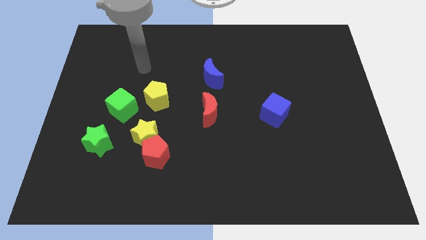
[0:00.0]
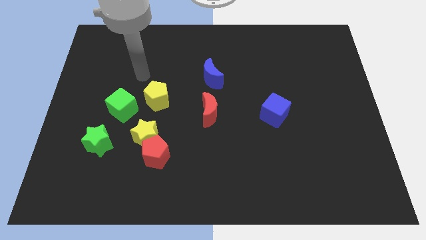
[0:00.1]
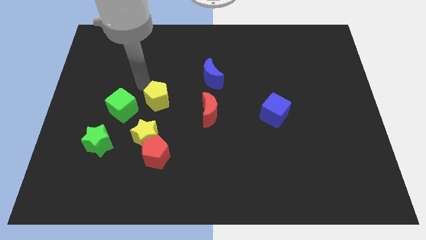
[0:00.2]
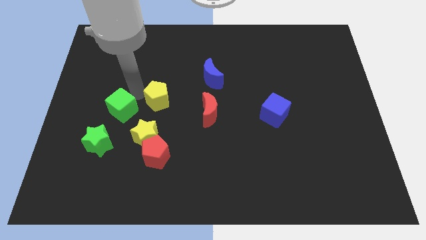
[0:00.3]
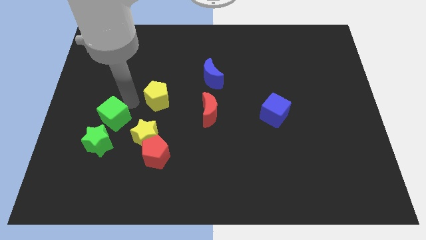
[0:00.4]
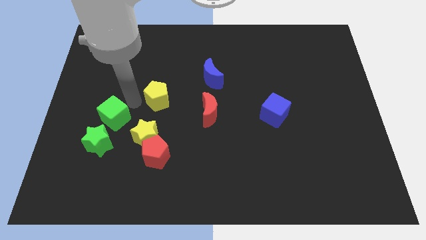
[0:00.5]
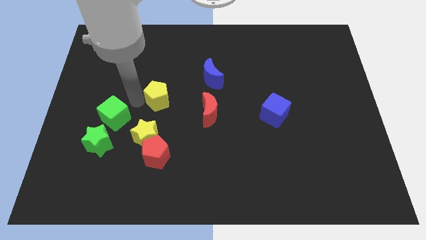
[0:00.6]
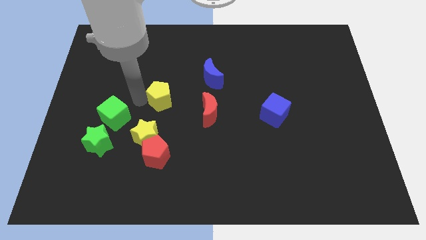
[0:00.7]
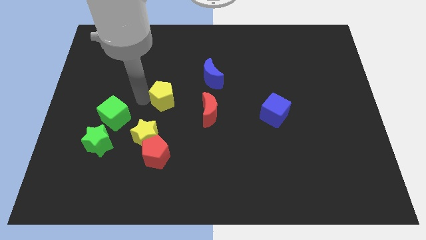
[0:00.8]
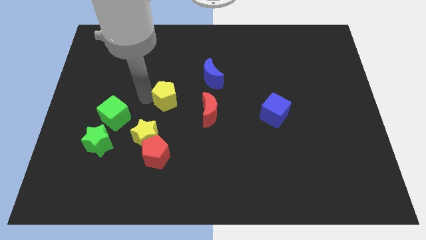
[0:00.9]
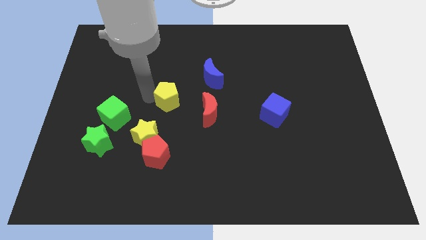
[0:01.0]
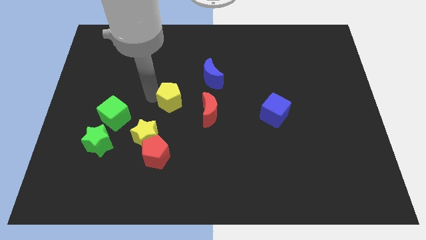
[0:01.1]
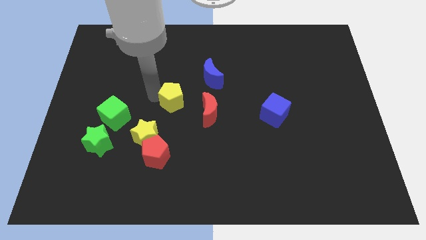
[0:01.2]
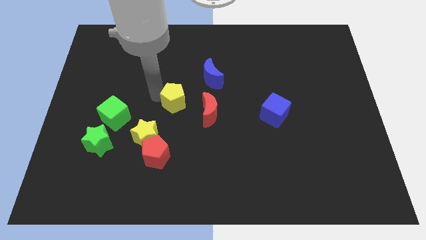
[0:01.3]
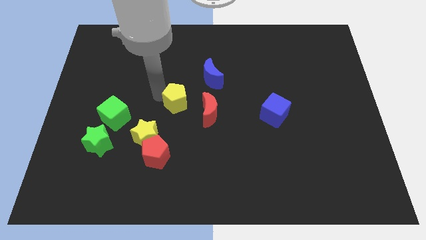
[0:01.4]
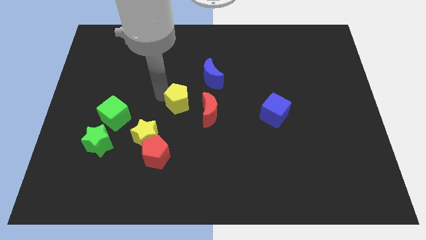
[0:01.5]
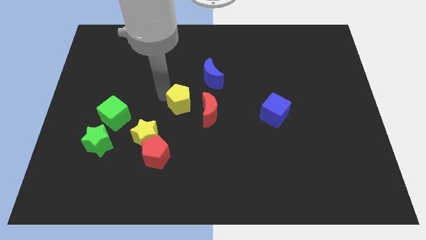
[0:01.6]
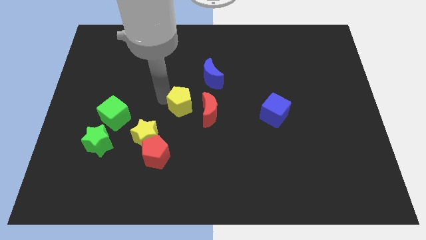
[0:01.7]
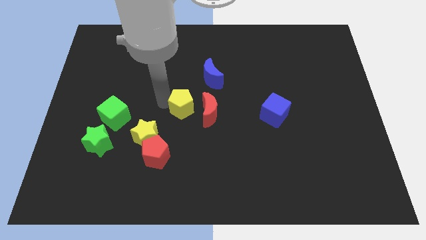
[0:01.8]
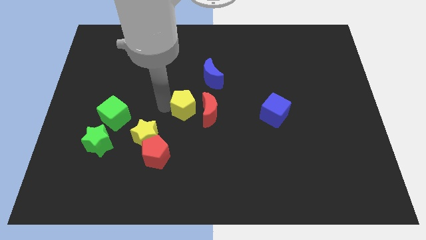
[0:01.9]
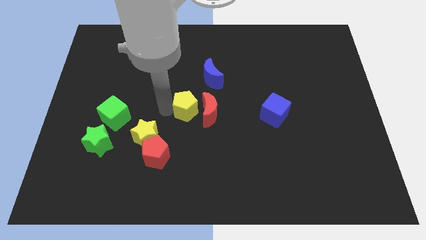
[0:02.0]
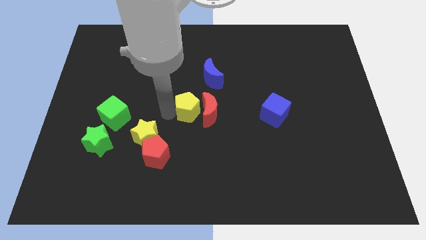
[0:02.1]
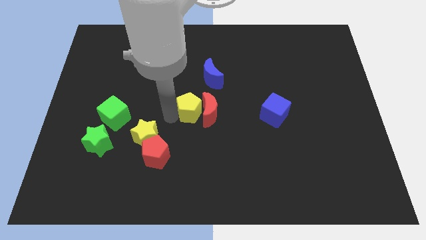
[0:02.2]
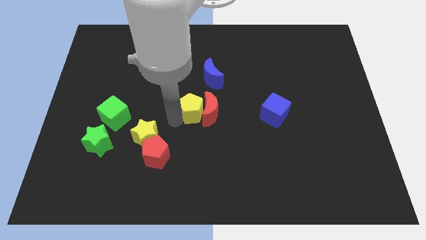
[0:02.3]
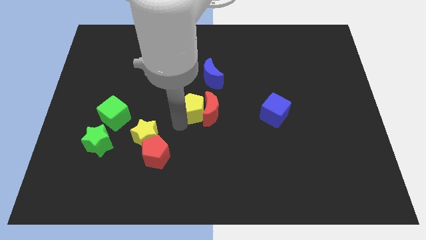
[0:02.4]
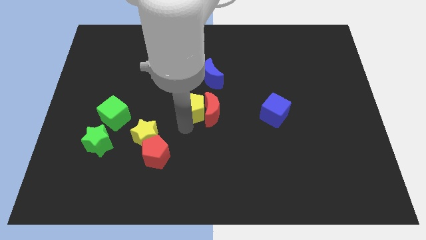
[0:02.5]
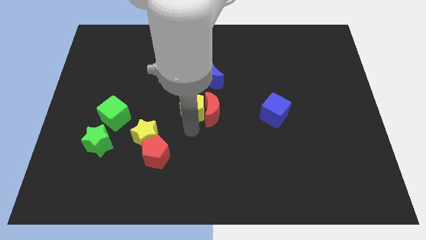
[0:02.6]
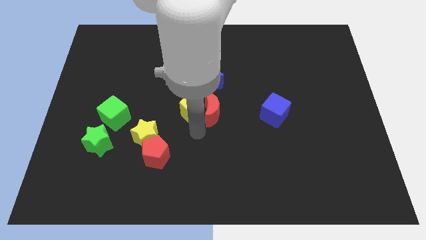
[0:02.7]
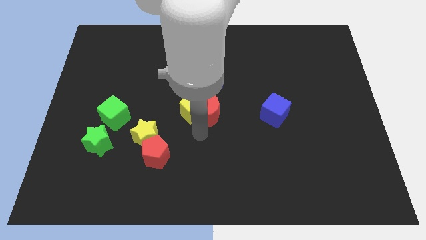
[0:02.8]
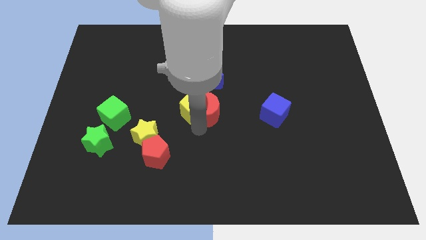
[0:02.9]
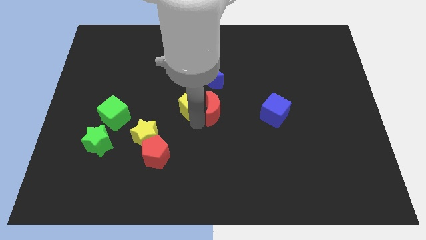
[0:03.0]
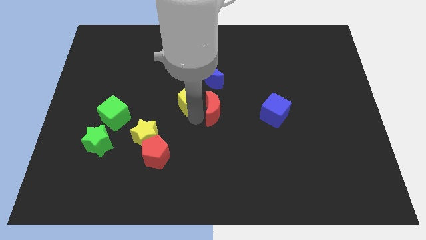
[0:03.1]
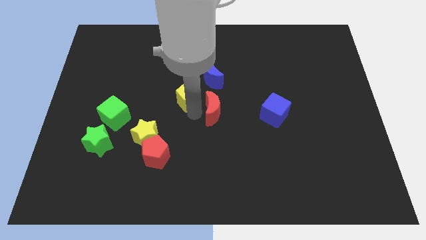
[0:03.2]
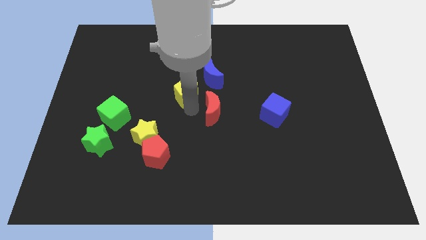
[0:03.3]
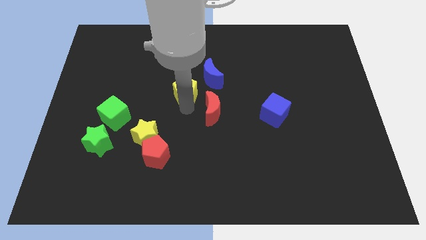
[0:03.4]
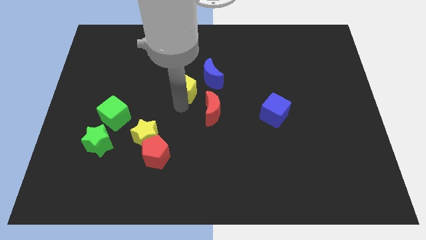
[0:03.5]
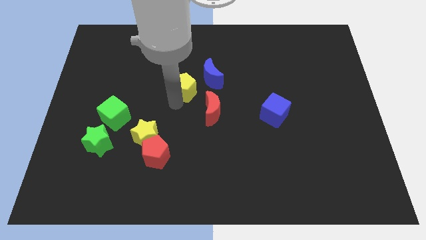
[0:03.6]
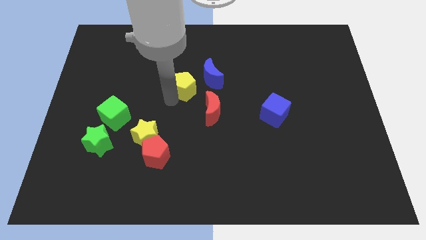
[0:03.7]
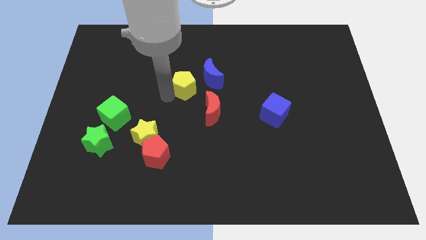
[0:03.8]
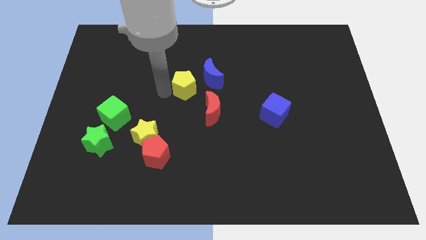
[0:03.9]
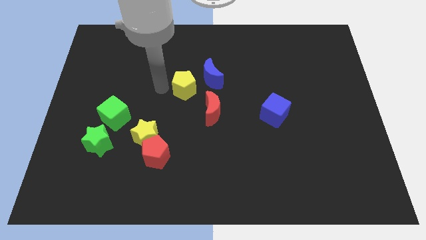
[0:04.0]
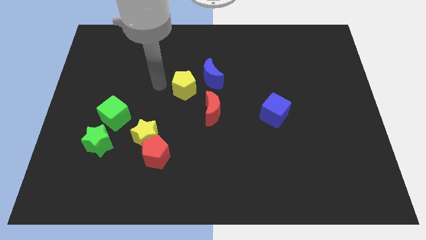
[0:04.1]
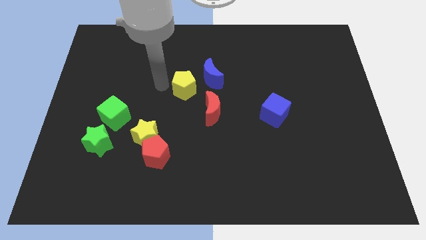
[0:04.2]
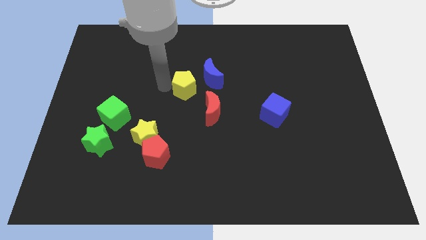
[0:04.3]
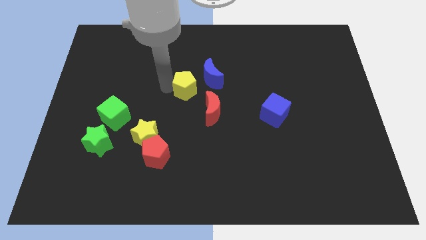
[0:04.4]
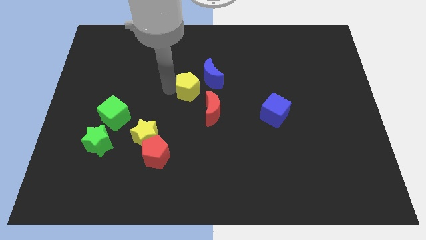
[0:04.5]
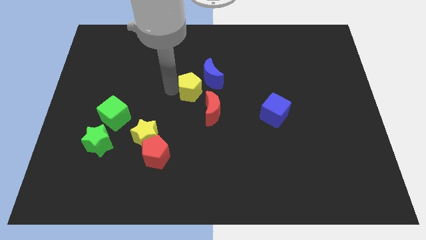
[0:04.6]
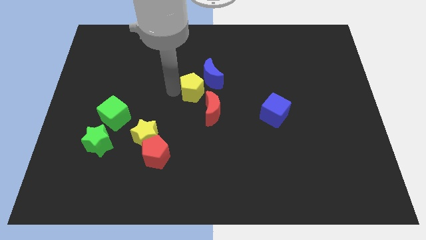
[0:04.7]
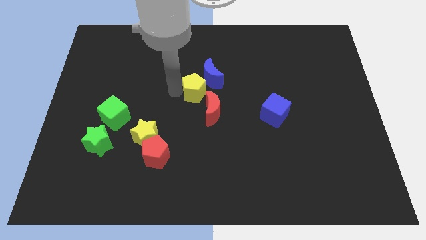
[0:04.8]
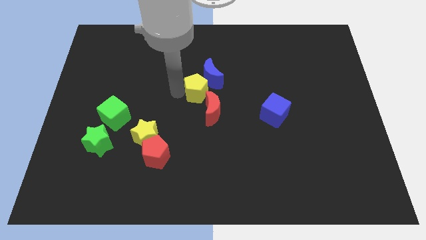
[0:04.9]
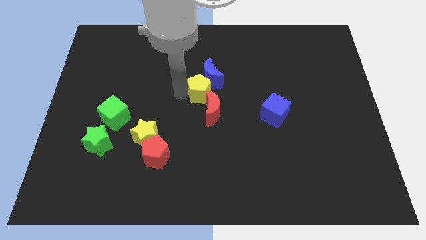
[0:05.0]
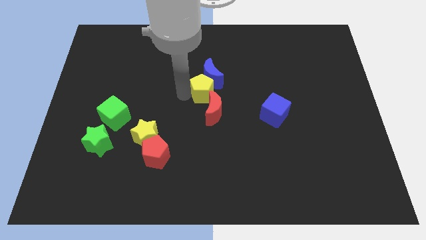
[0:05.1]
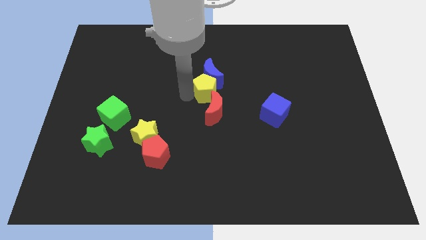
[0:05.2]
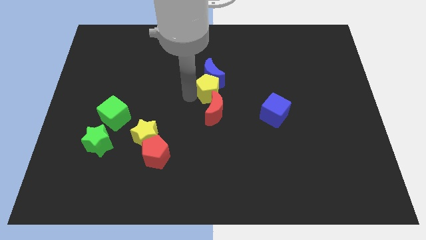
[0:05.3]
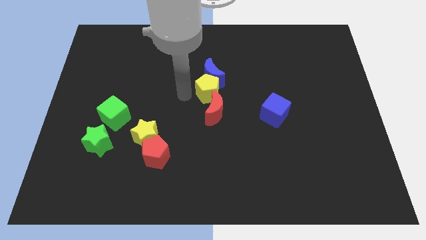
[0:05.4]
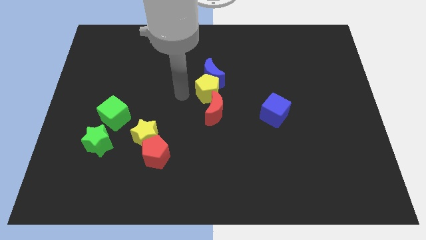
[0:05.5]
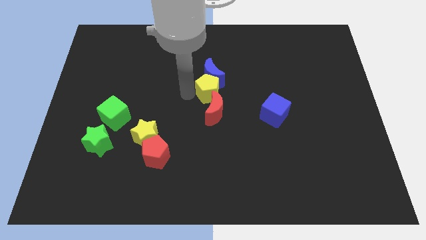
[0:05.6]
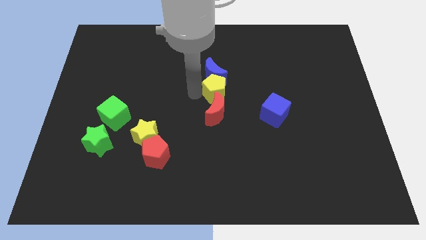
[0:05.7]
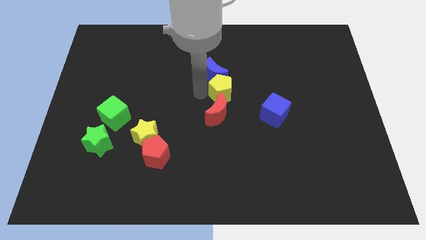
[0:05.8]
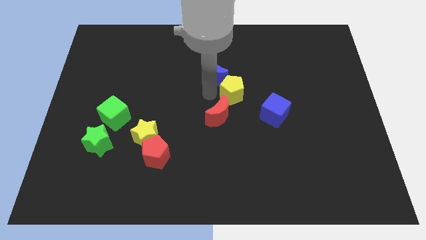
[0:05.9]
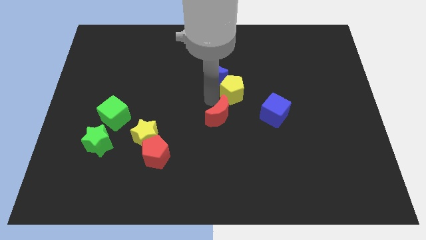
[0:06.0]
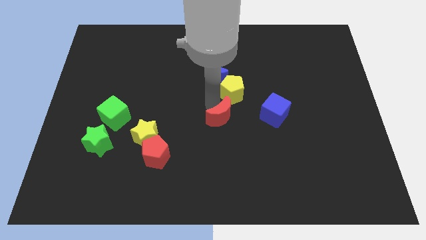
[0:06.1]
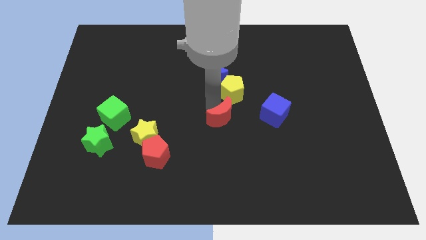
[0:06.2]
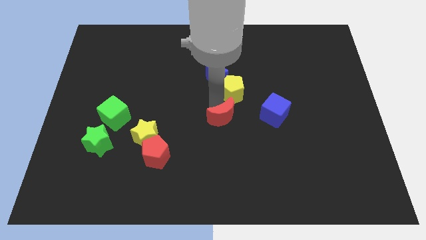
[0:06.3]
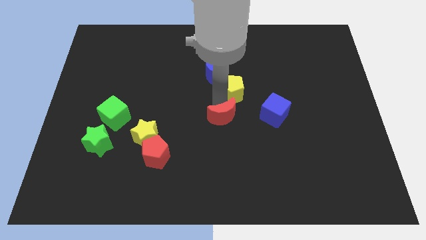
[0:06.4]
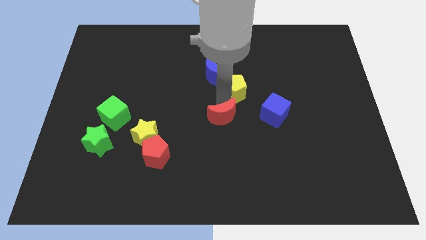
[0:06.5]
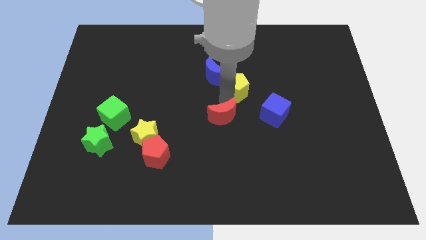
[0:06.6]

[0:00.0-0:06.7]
move the yellow pentagon to the right of the blue moon

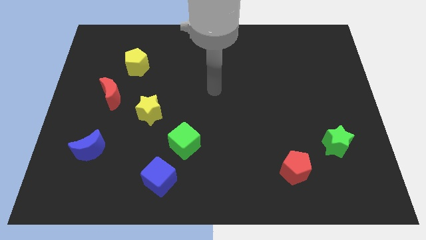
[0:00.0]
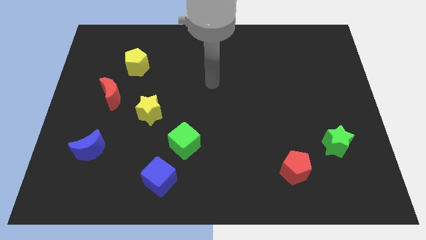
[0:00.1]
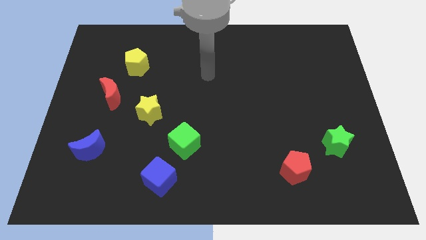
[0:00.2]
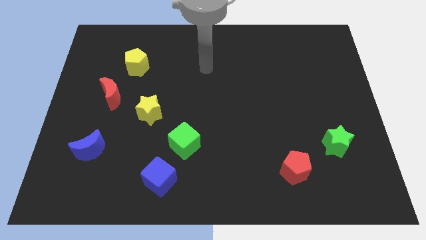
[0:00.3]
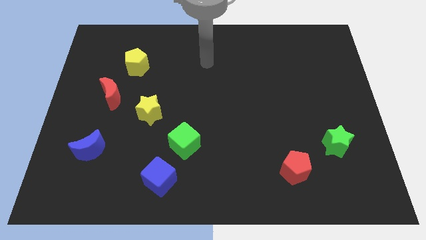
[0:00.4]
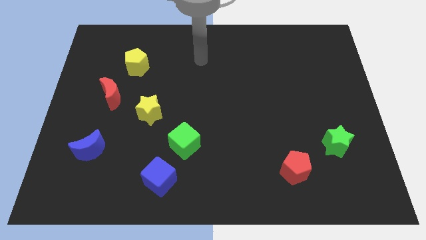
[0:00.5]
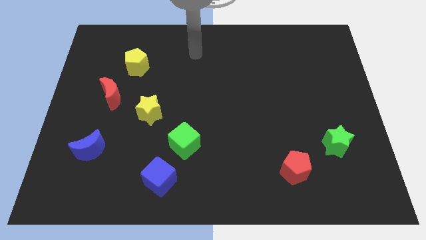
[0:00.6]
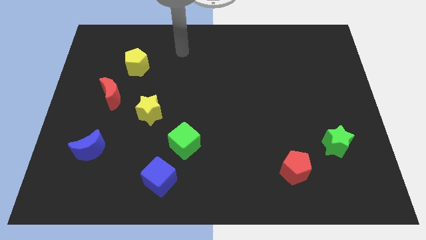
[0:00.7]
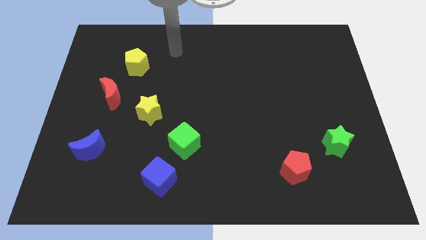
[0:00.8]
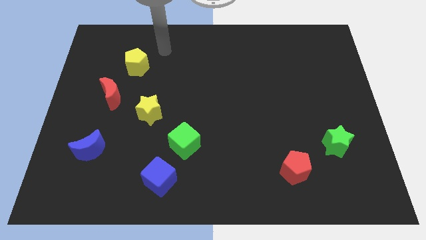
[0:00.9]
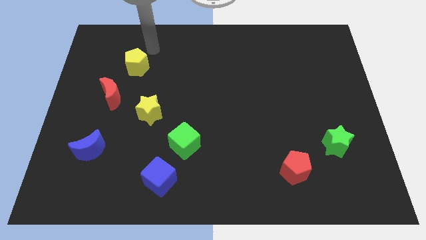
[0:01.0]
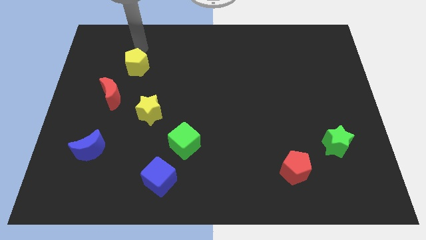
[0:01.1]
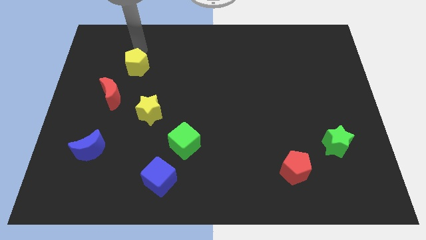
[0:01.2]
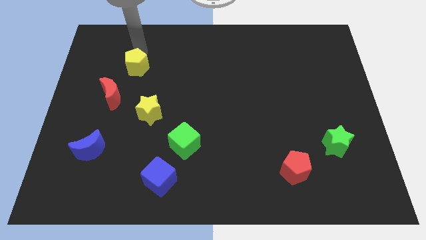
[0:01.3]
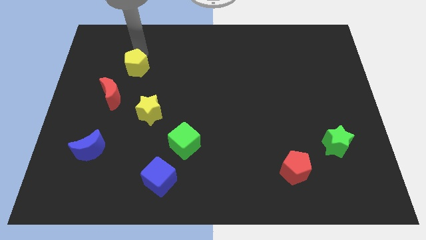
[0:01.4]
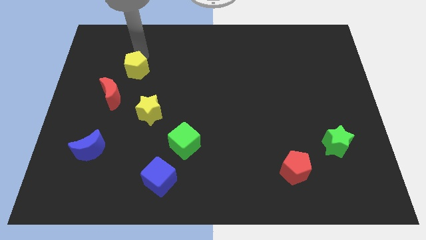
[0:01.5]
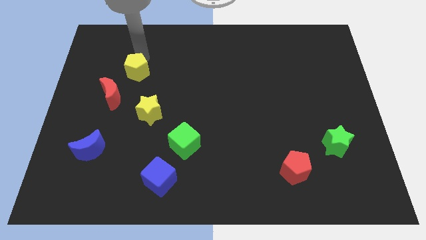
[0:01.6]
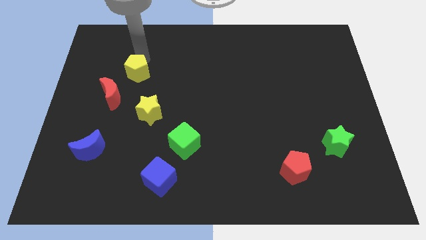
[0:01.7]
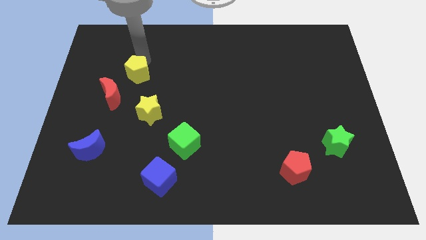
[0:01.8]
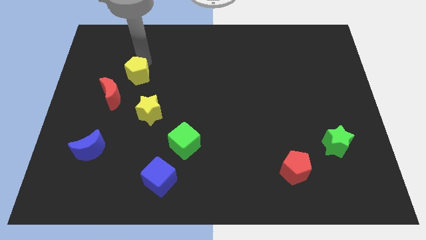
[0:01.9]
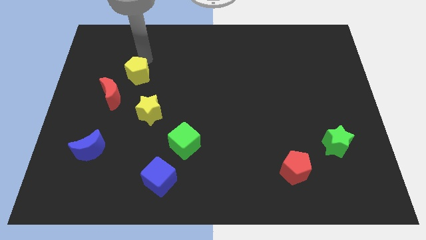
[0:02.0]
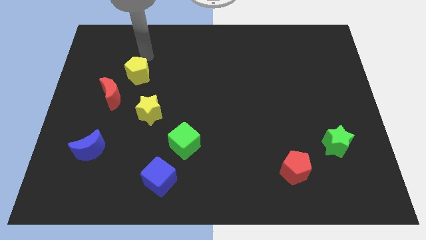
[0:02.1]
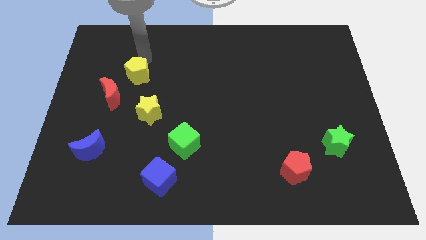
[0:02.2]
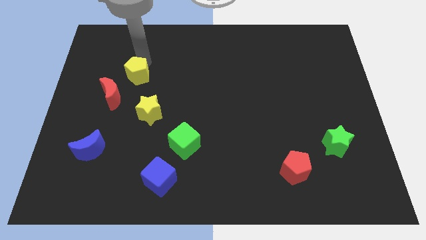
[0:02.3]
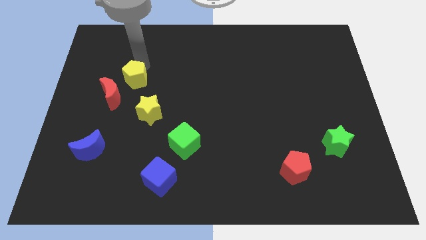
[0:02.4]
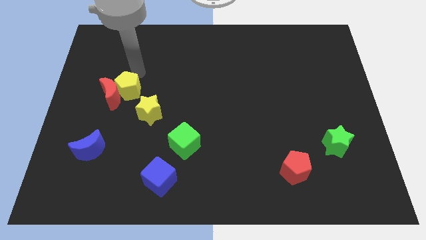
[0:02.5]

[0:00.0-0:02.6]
put the yellow pentagon diagonally down and to the right of the red moon
